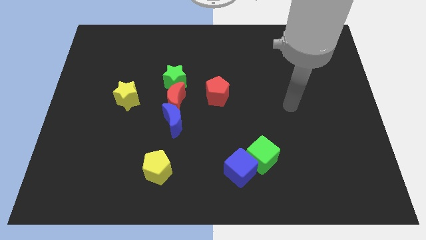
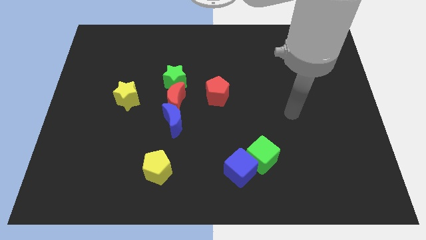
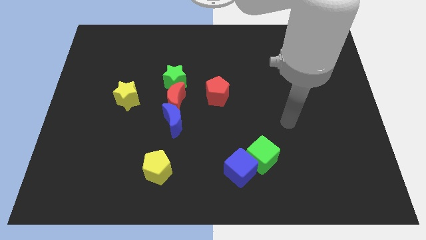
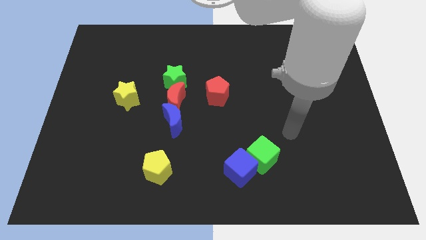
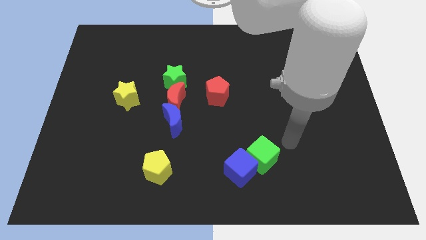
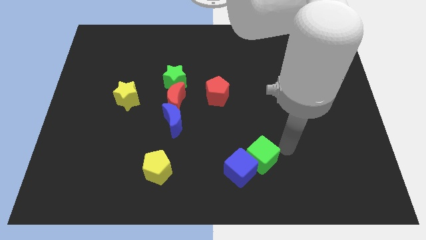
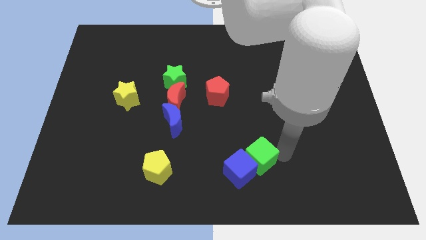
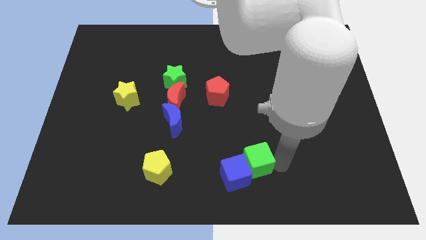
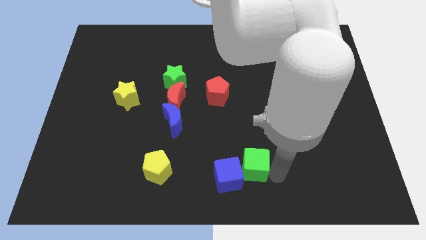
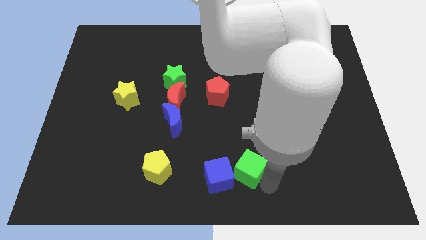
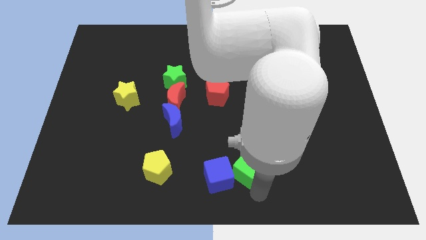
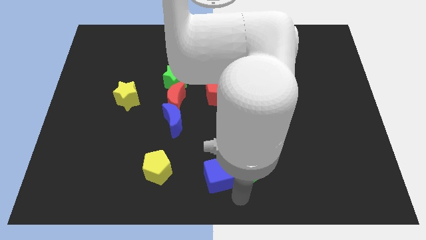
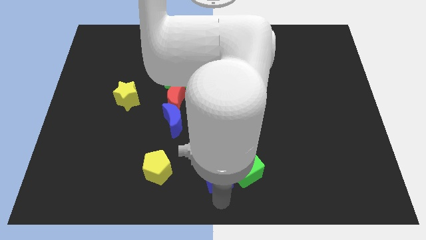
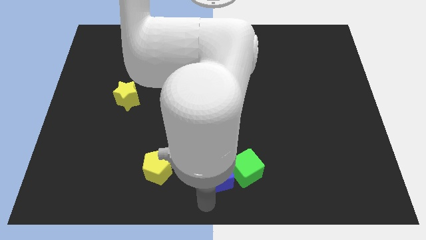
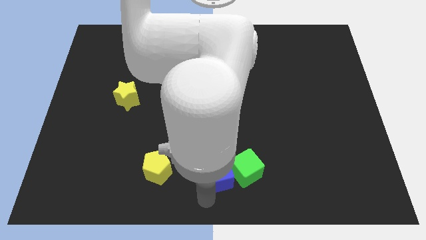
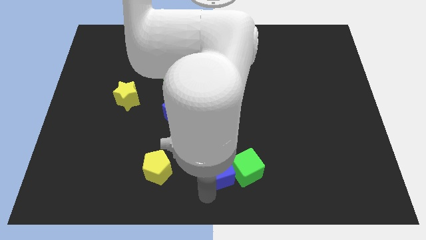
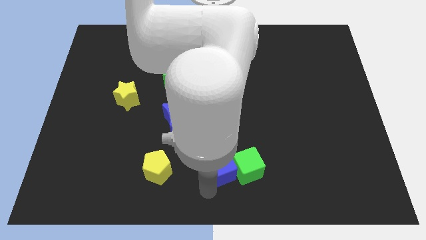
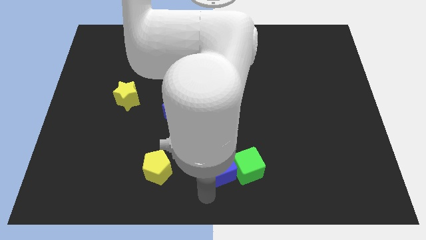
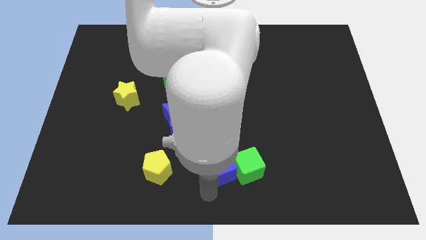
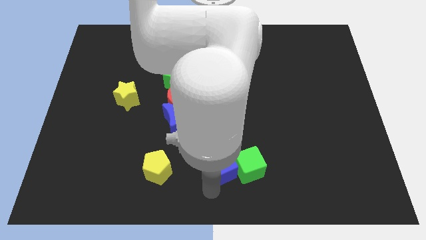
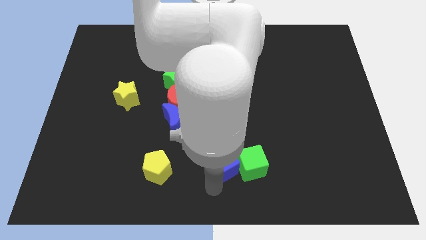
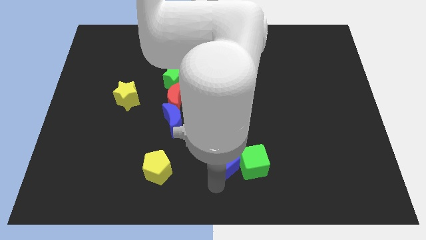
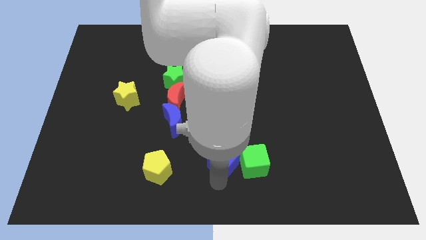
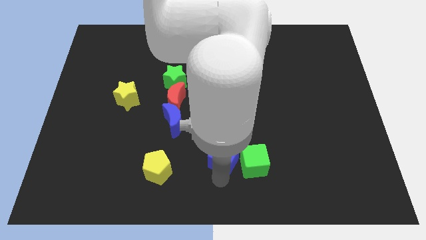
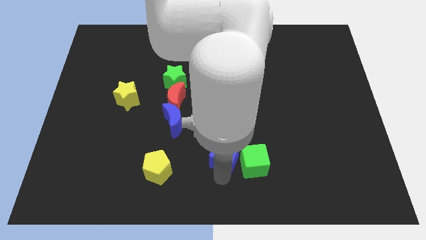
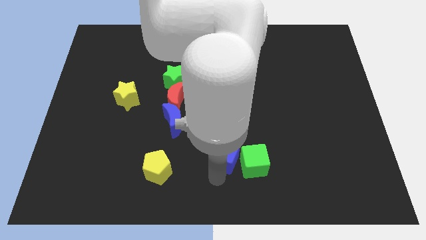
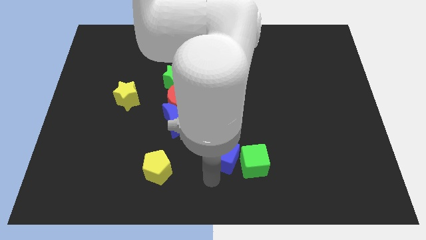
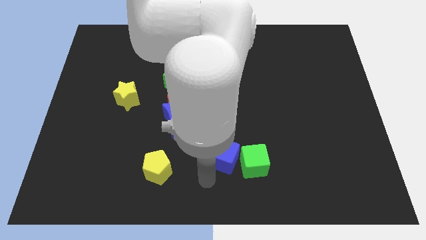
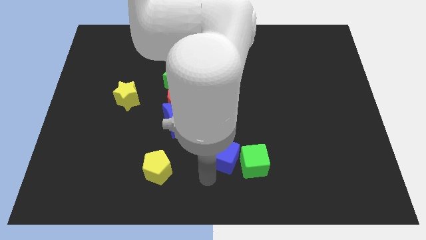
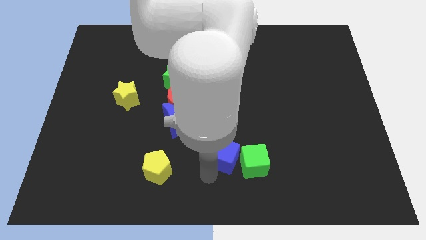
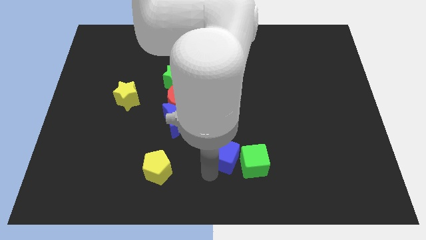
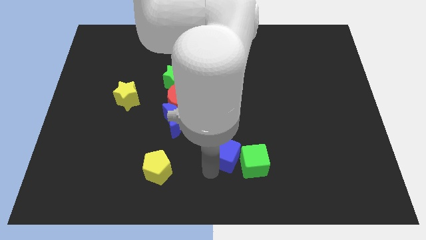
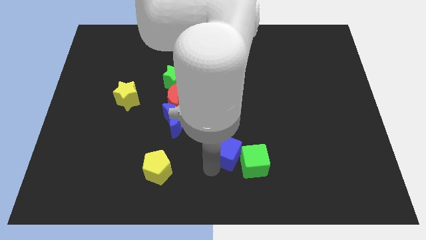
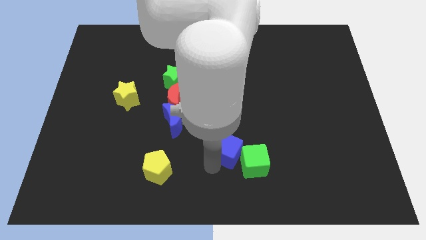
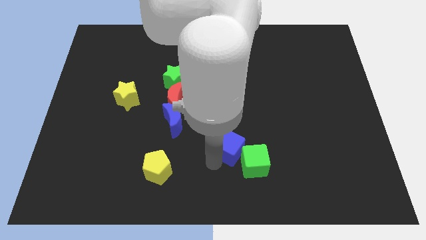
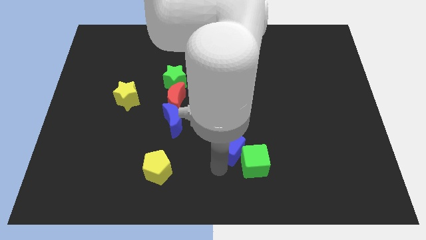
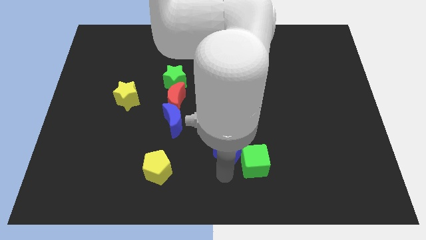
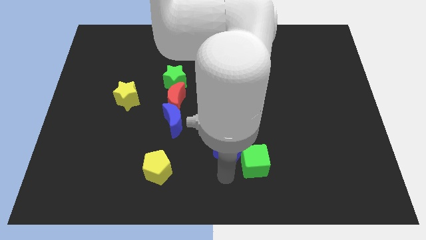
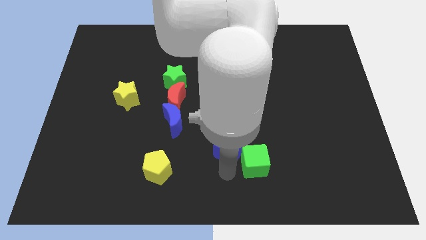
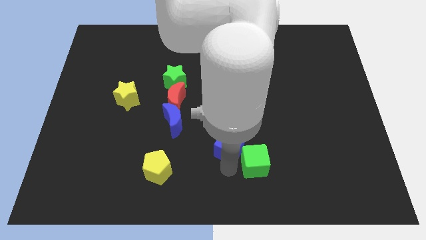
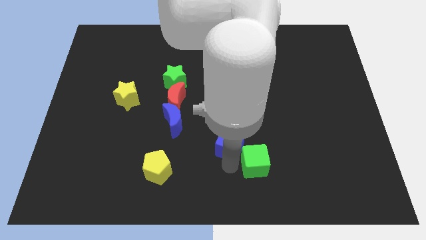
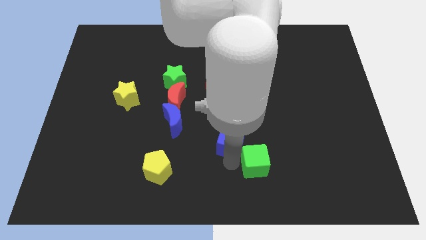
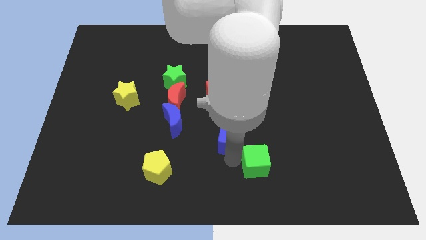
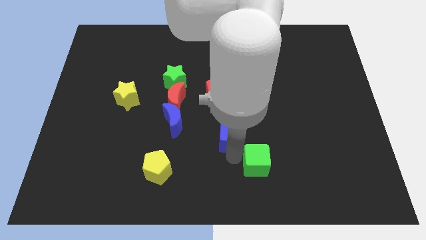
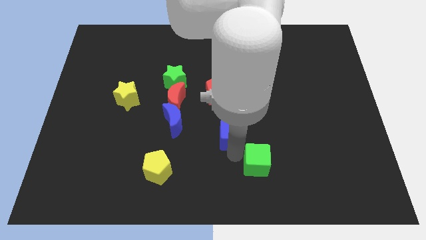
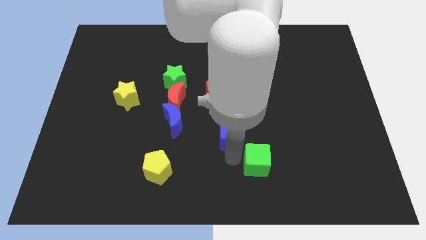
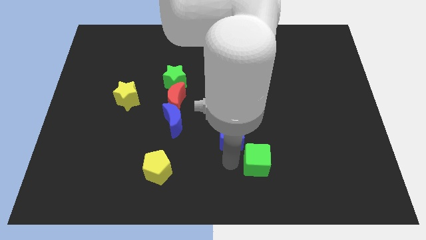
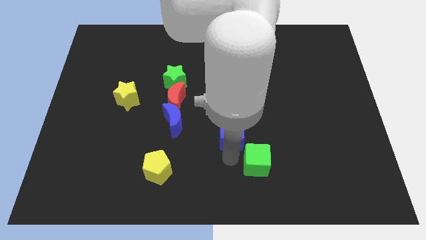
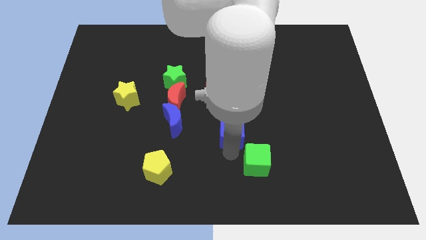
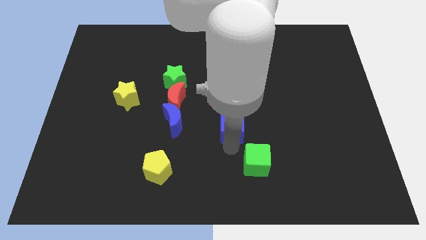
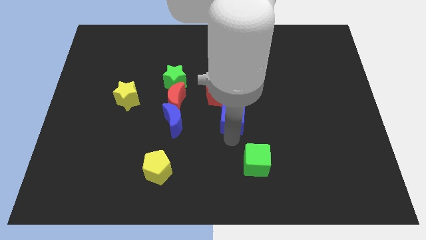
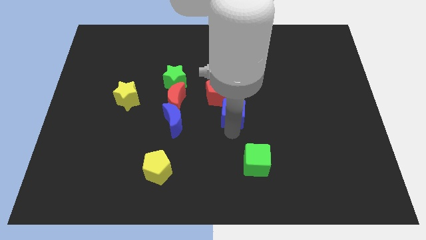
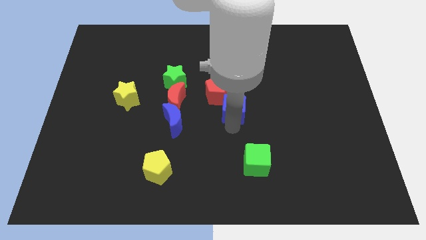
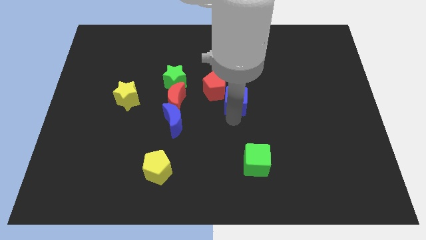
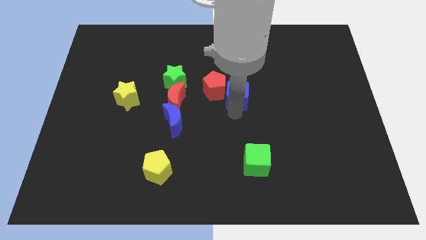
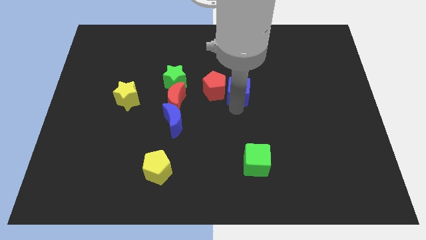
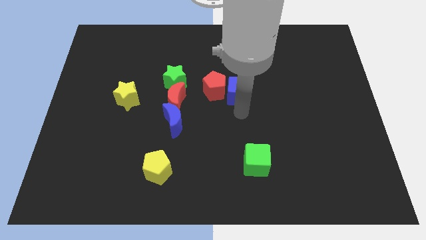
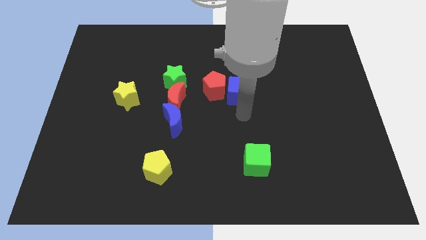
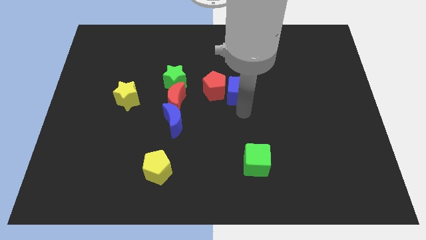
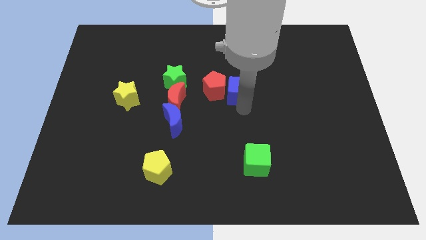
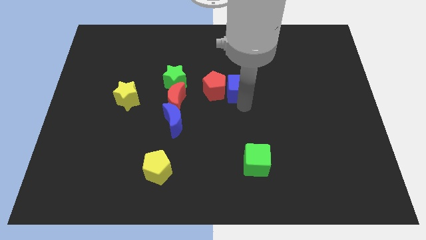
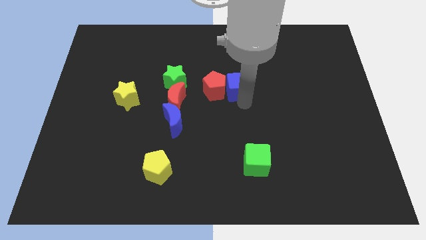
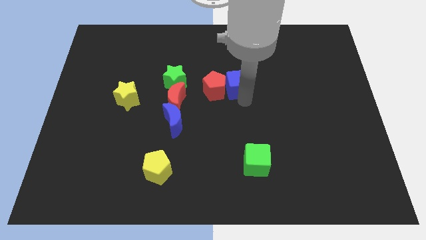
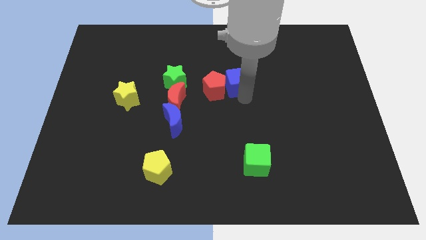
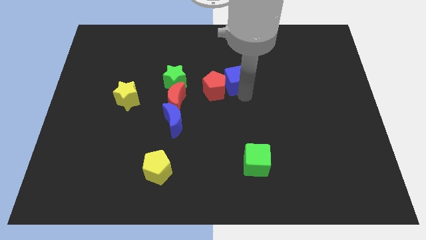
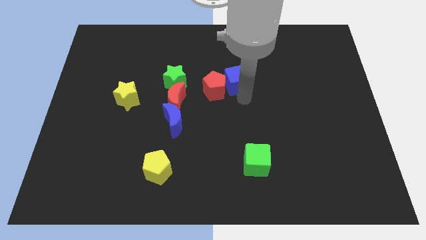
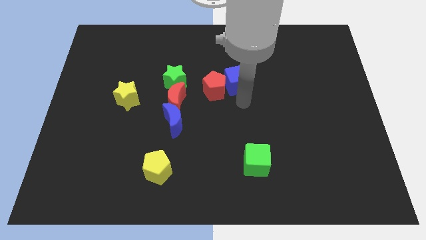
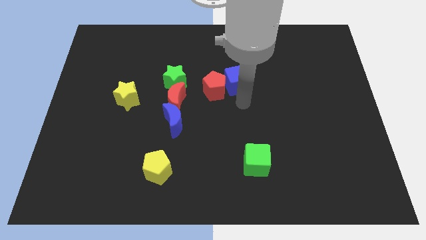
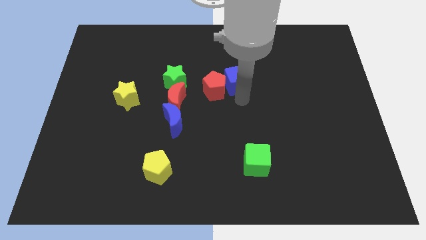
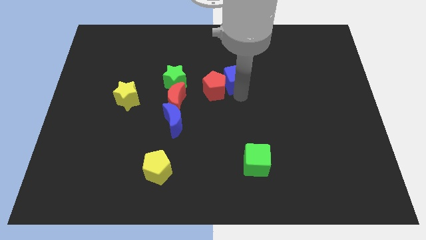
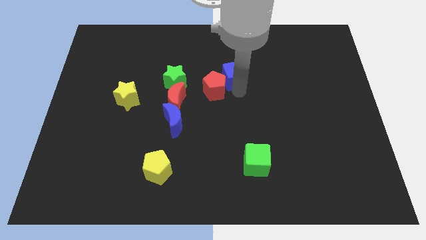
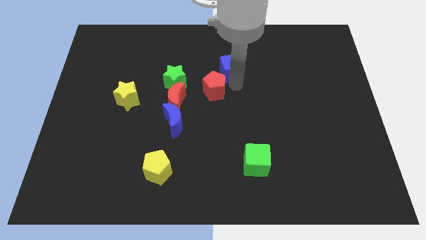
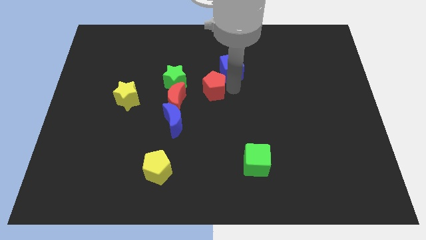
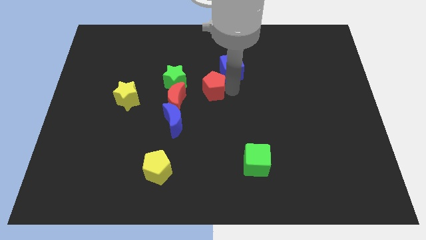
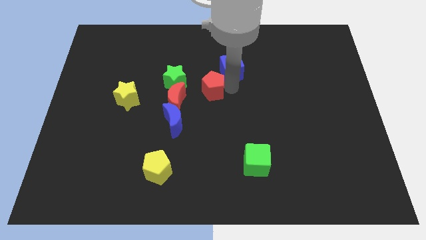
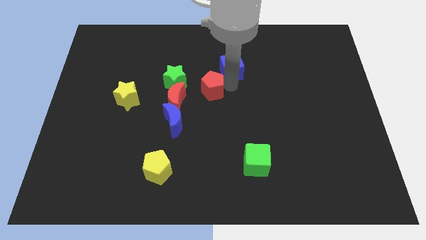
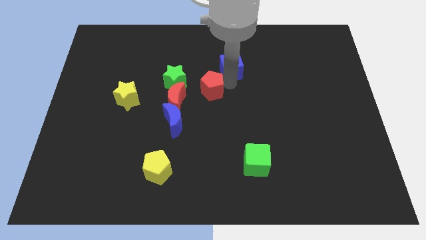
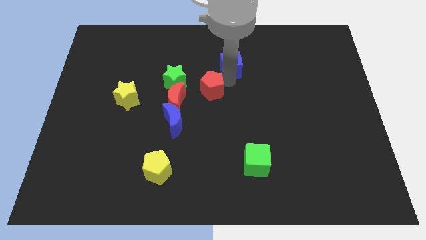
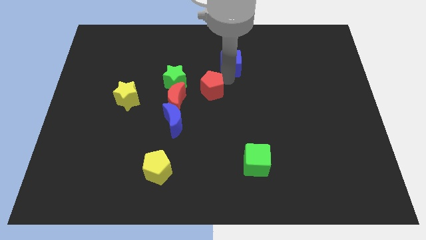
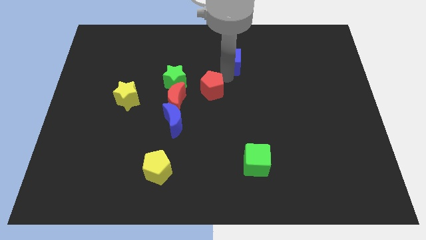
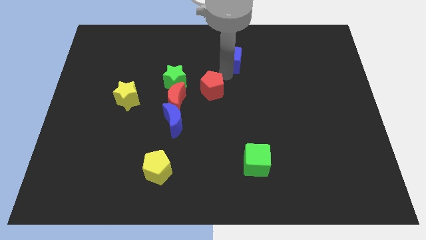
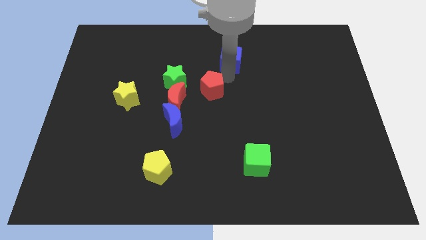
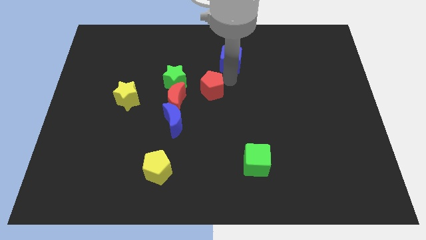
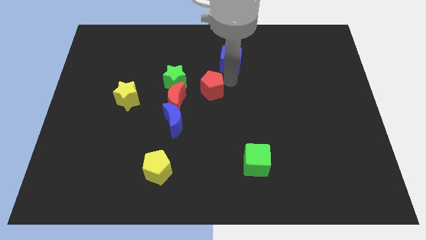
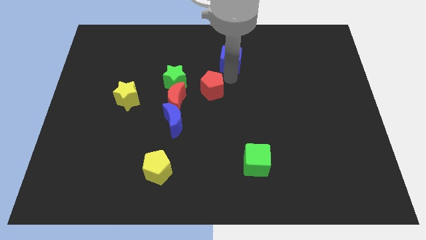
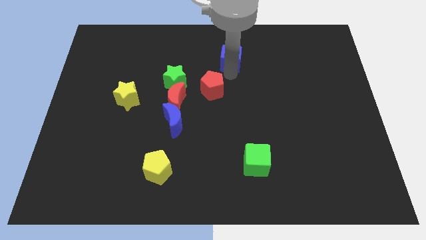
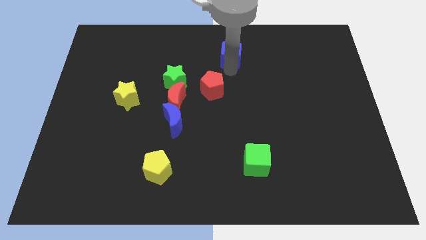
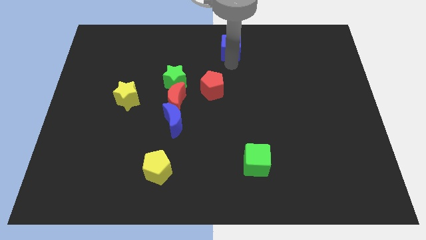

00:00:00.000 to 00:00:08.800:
push the blue cube to the top side
